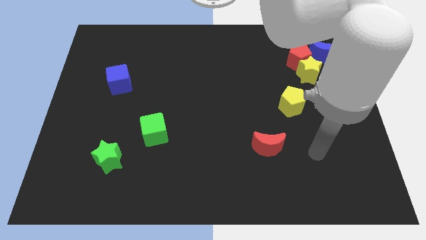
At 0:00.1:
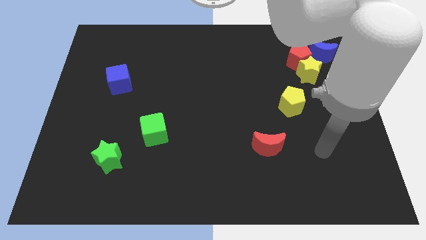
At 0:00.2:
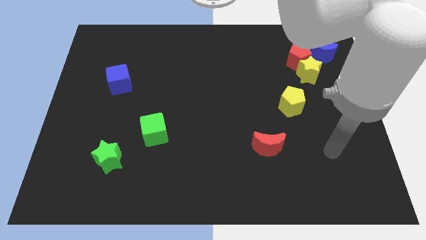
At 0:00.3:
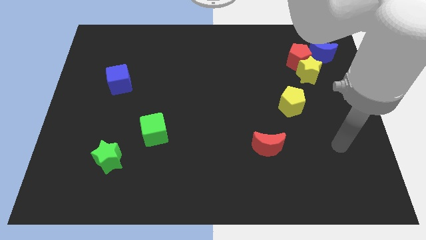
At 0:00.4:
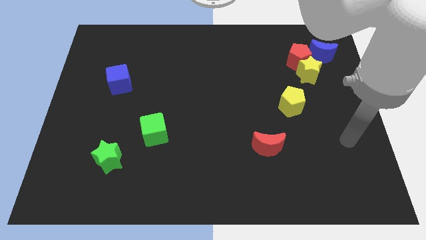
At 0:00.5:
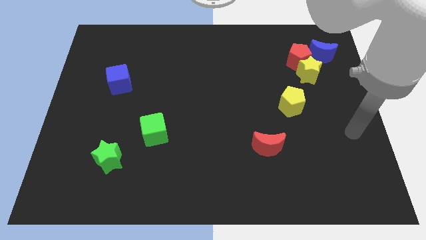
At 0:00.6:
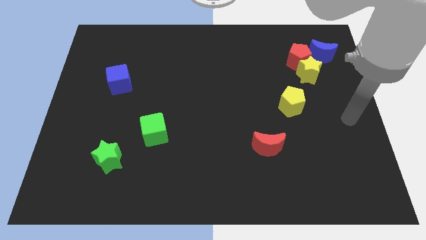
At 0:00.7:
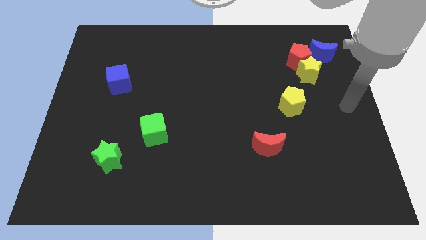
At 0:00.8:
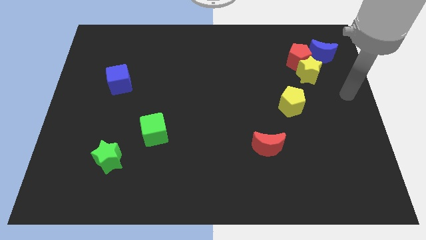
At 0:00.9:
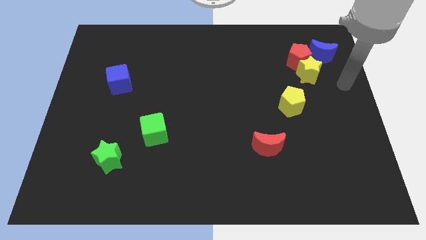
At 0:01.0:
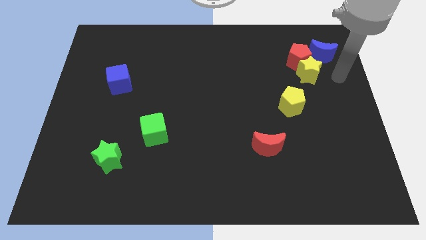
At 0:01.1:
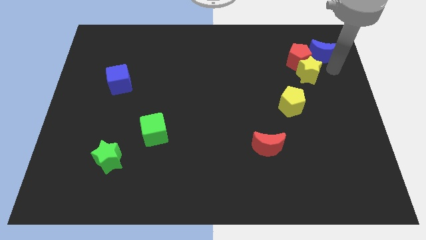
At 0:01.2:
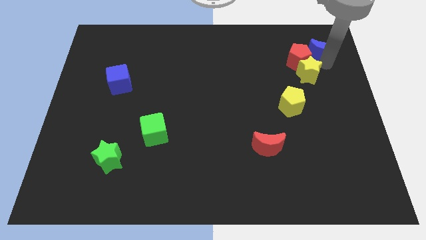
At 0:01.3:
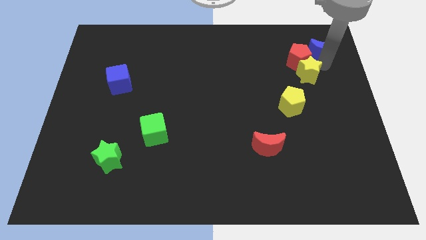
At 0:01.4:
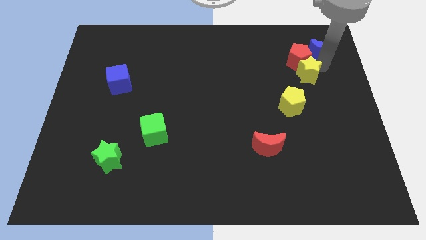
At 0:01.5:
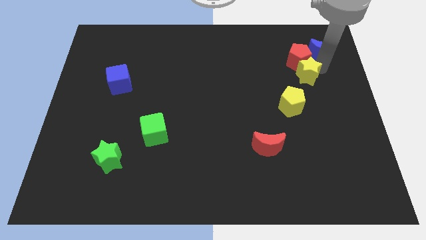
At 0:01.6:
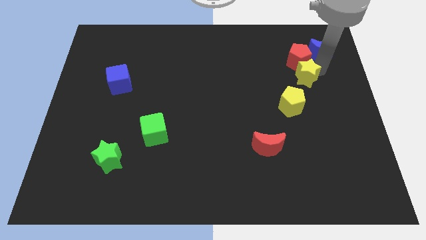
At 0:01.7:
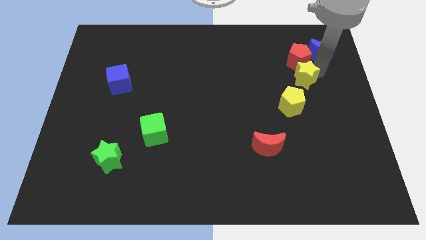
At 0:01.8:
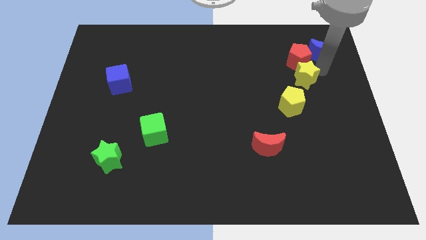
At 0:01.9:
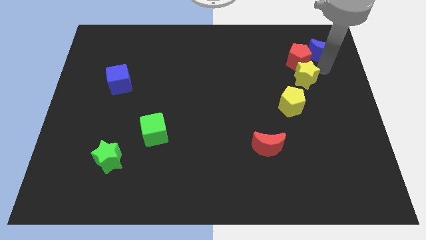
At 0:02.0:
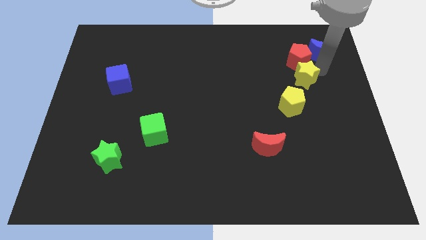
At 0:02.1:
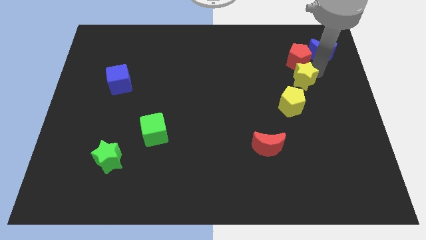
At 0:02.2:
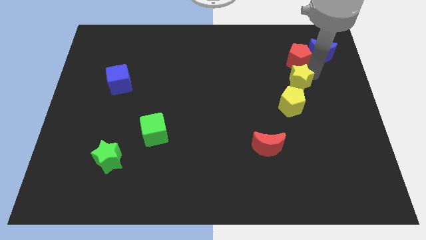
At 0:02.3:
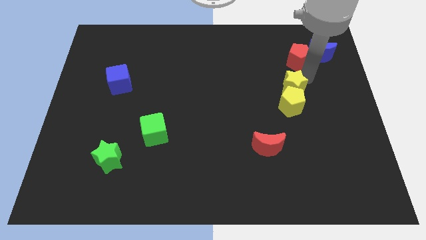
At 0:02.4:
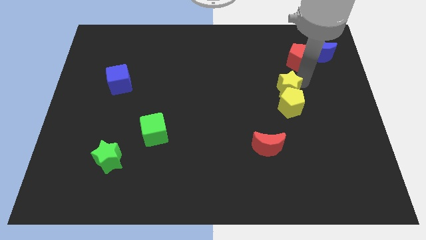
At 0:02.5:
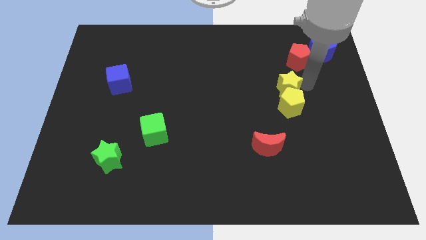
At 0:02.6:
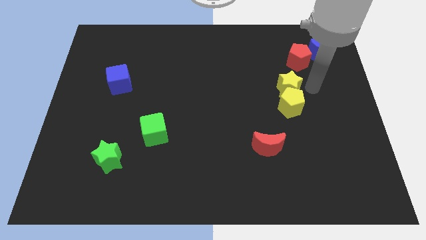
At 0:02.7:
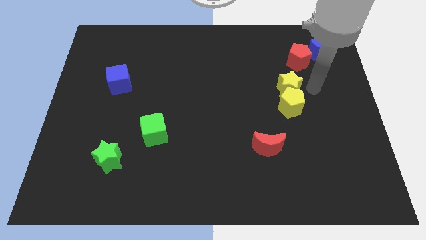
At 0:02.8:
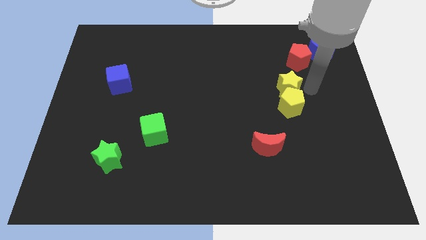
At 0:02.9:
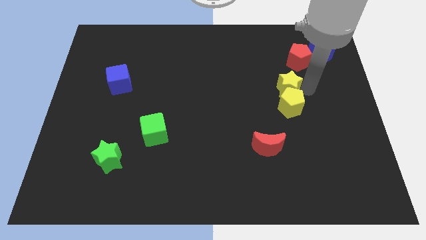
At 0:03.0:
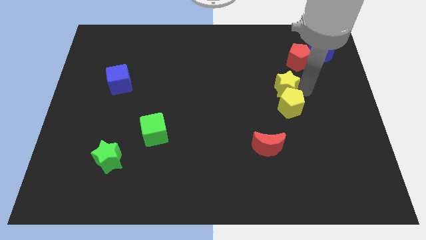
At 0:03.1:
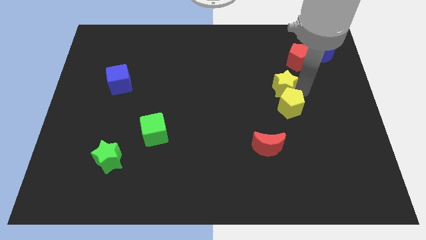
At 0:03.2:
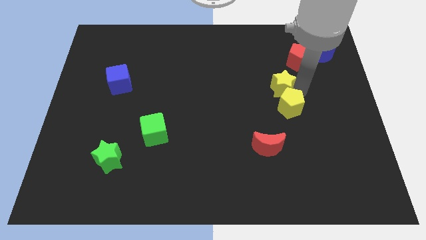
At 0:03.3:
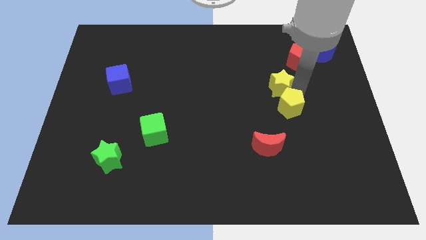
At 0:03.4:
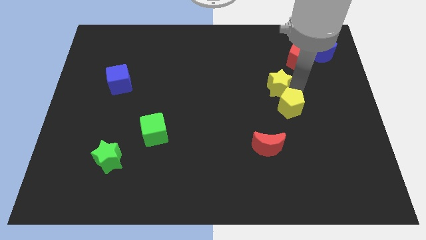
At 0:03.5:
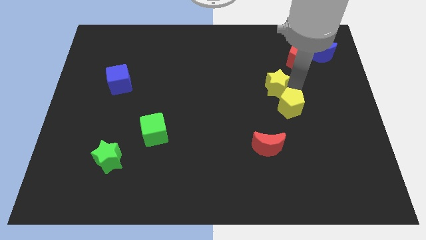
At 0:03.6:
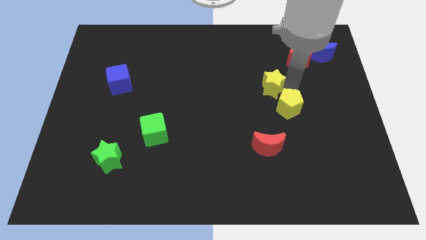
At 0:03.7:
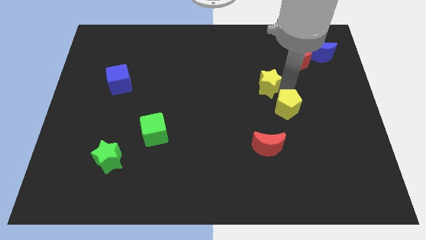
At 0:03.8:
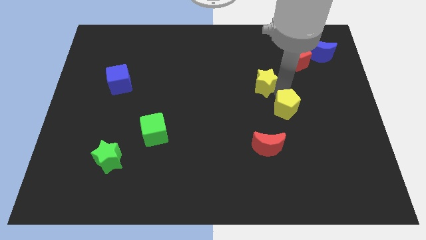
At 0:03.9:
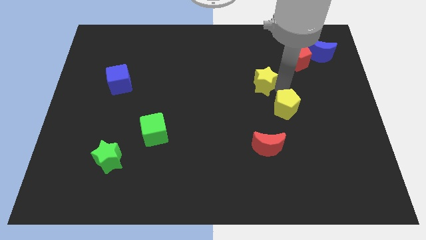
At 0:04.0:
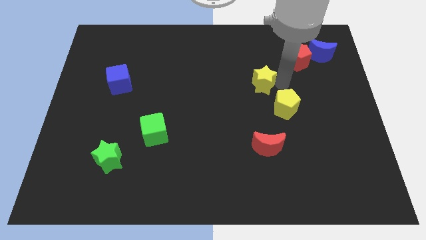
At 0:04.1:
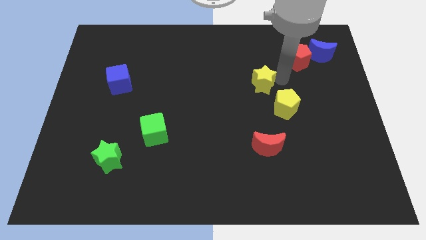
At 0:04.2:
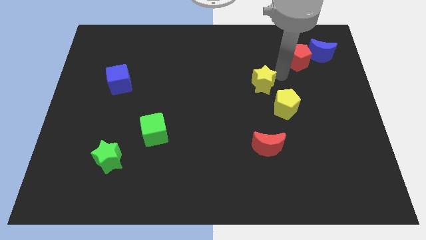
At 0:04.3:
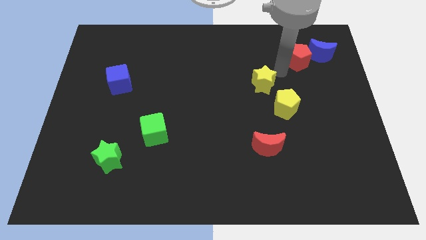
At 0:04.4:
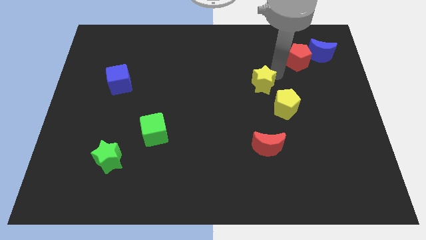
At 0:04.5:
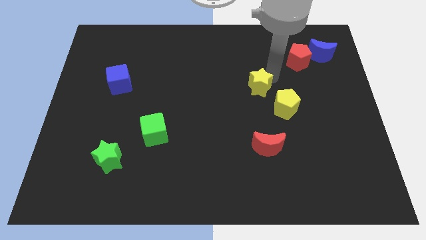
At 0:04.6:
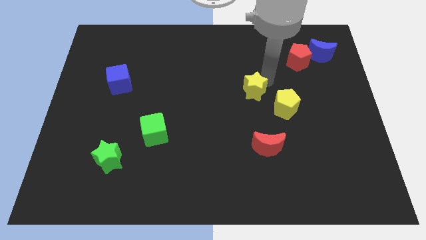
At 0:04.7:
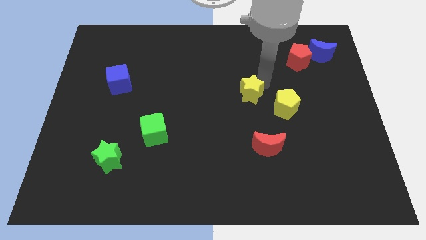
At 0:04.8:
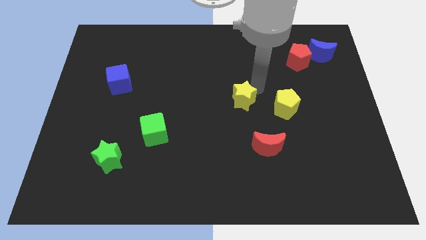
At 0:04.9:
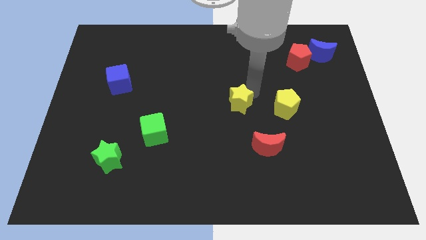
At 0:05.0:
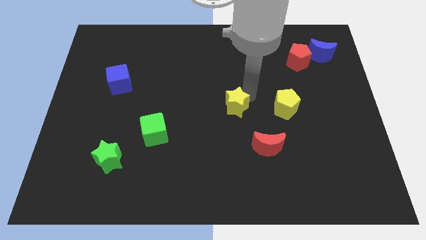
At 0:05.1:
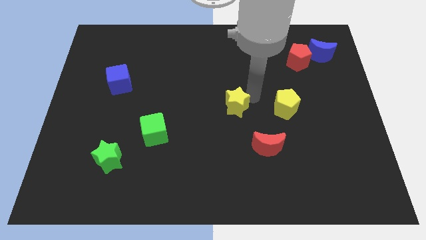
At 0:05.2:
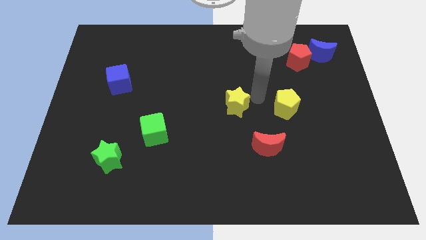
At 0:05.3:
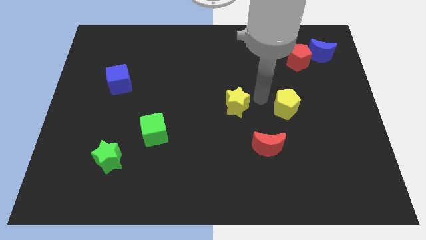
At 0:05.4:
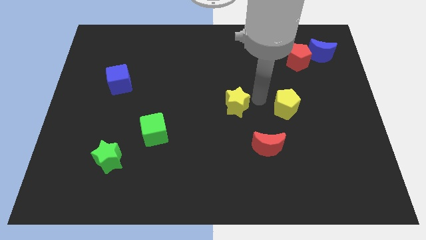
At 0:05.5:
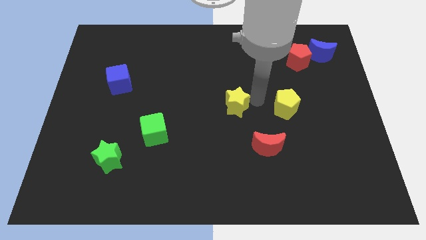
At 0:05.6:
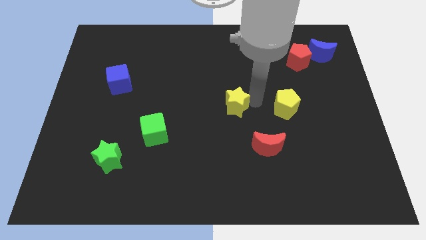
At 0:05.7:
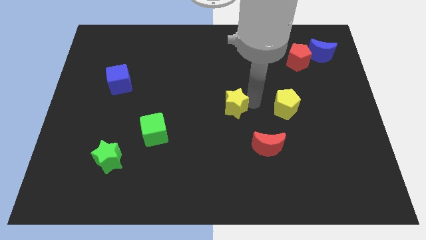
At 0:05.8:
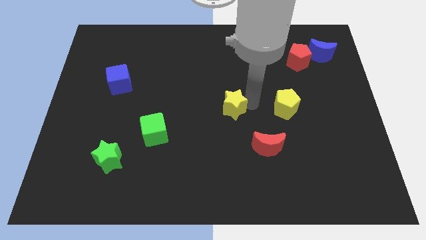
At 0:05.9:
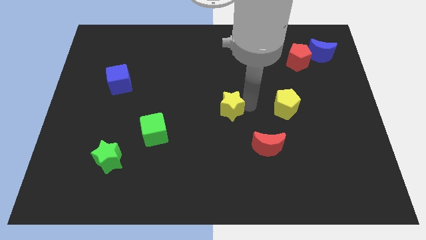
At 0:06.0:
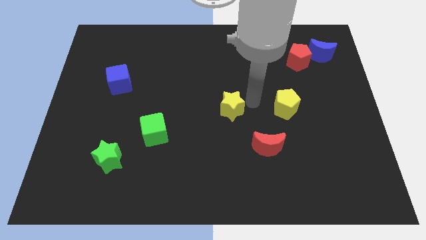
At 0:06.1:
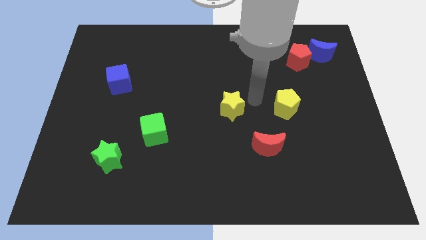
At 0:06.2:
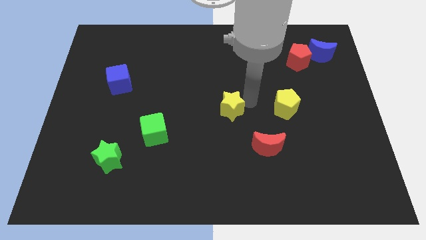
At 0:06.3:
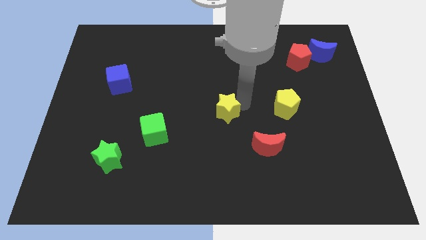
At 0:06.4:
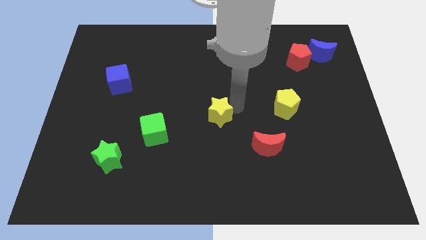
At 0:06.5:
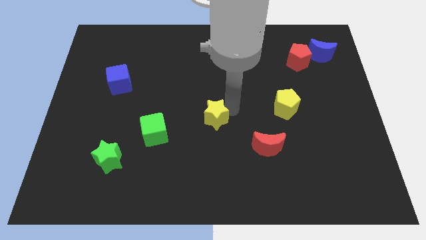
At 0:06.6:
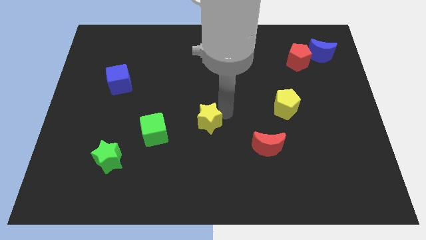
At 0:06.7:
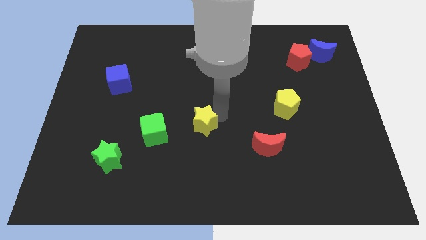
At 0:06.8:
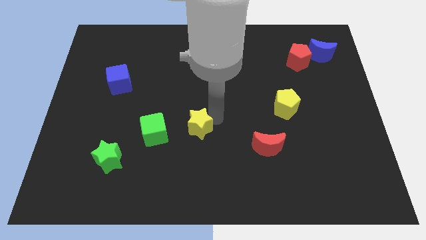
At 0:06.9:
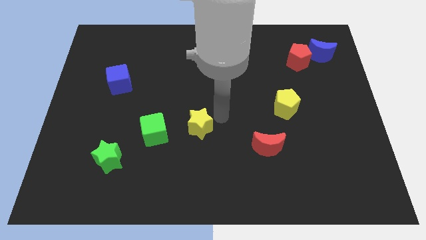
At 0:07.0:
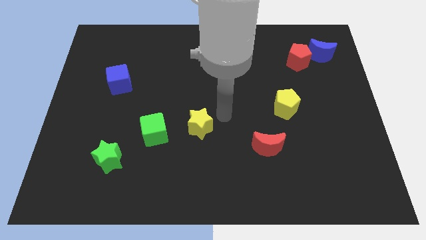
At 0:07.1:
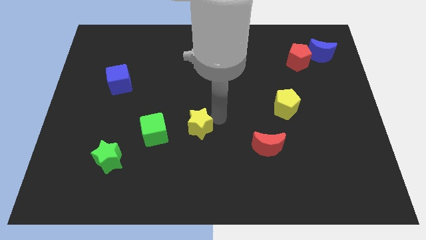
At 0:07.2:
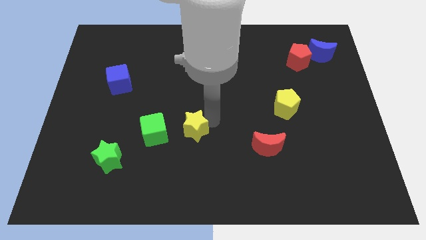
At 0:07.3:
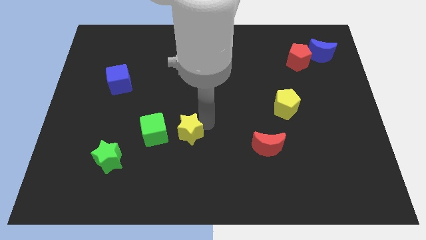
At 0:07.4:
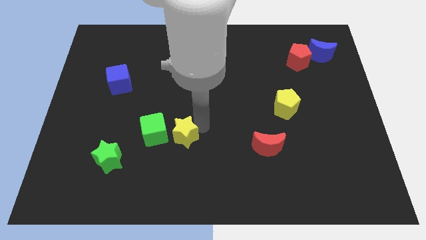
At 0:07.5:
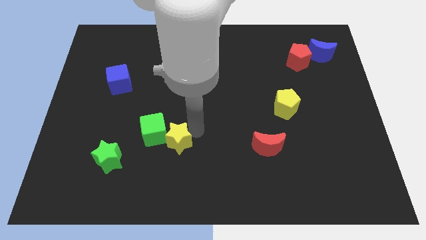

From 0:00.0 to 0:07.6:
move the yellow star close to the green cube
